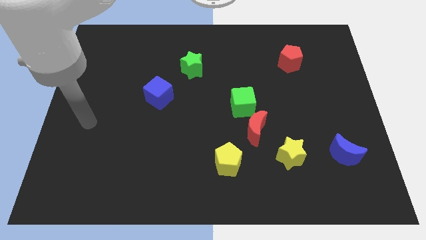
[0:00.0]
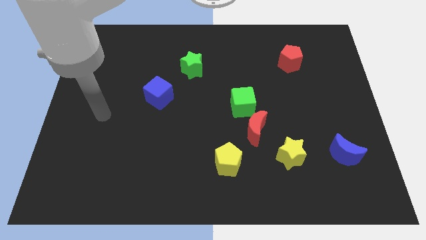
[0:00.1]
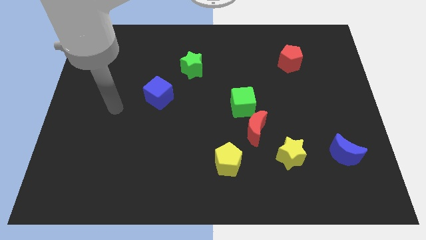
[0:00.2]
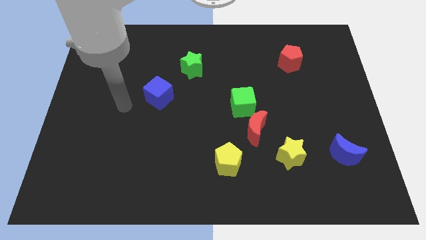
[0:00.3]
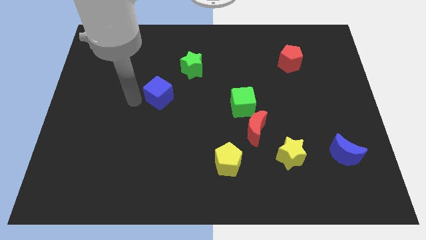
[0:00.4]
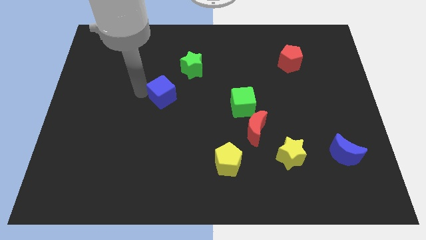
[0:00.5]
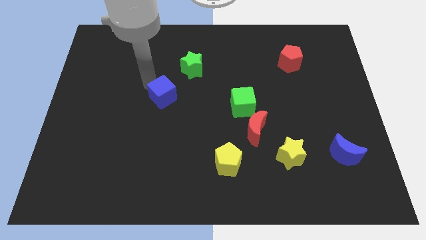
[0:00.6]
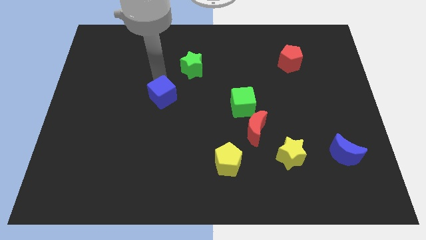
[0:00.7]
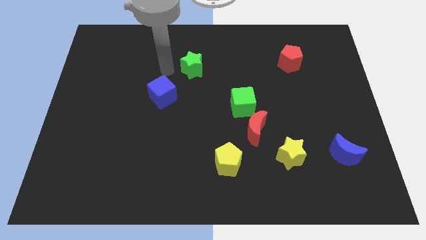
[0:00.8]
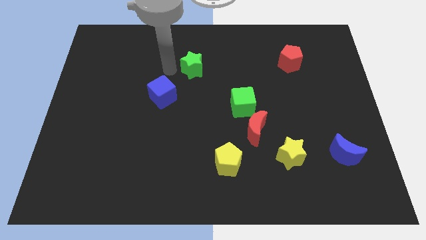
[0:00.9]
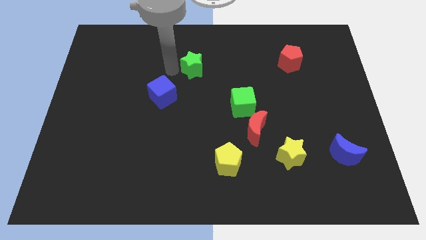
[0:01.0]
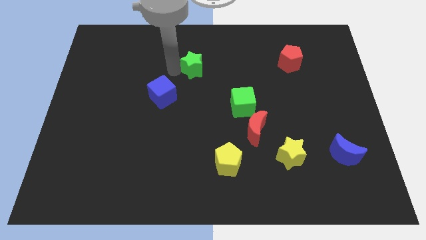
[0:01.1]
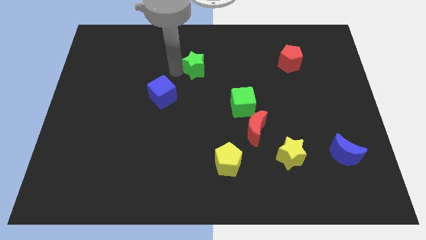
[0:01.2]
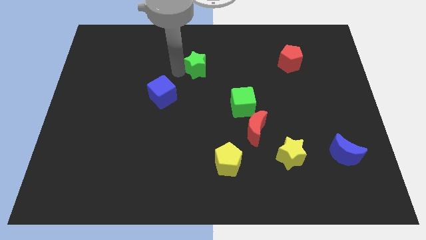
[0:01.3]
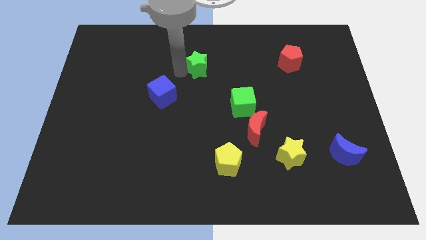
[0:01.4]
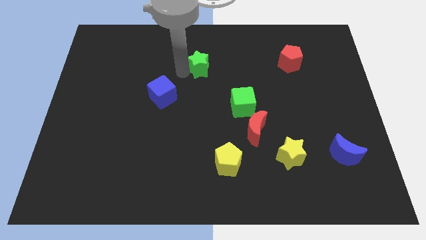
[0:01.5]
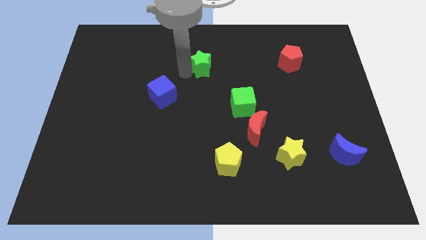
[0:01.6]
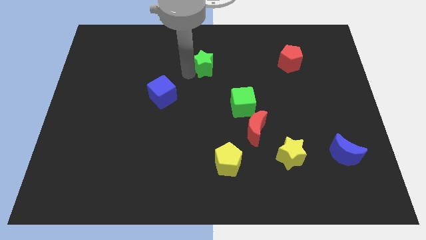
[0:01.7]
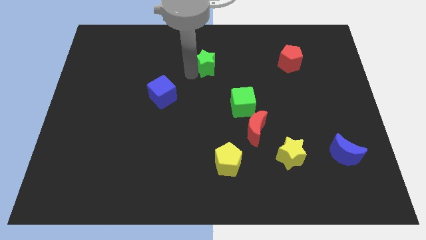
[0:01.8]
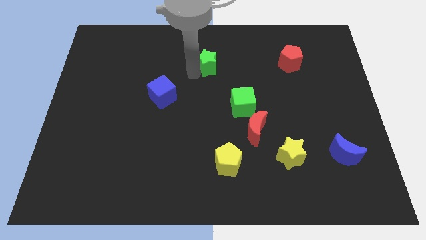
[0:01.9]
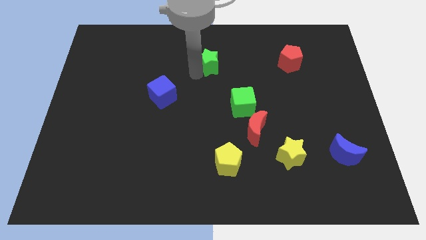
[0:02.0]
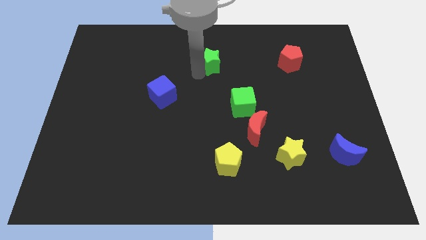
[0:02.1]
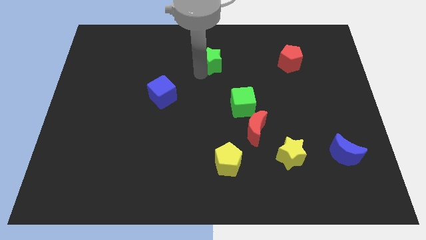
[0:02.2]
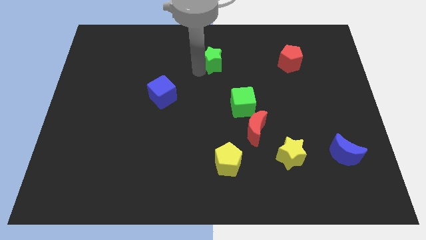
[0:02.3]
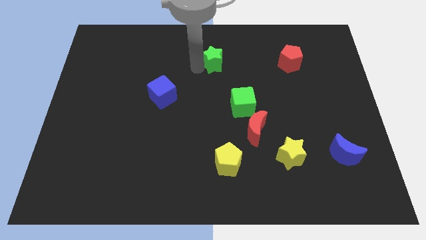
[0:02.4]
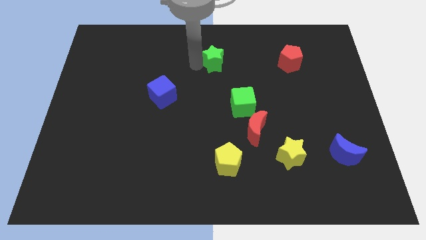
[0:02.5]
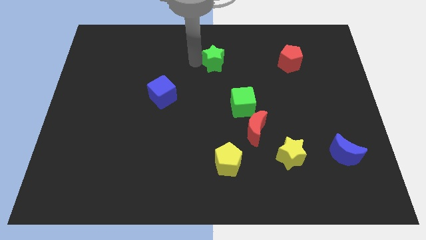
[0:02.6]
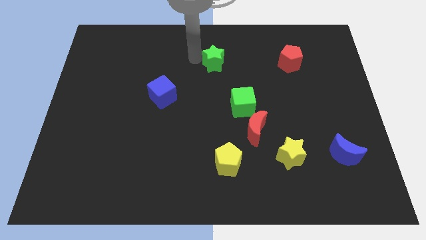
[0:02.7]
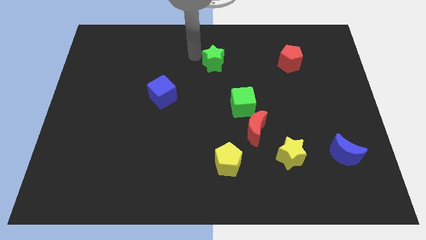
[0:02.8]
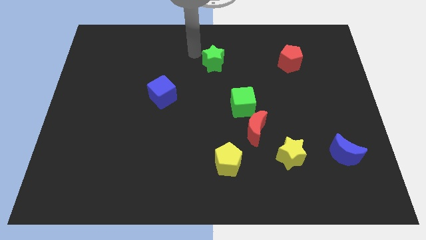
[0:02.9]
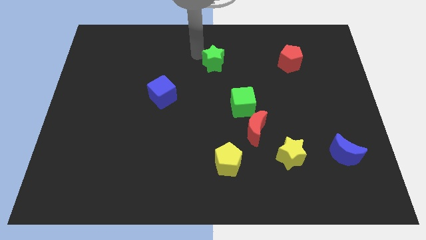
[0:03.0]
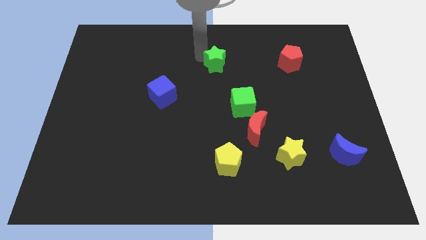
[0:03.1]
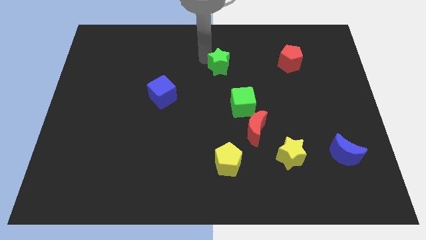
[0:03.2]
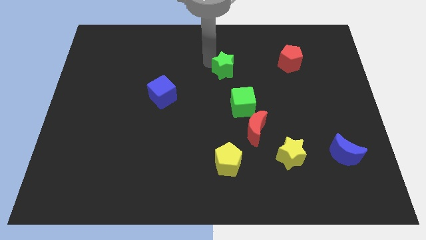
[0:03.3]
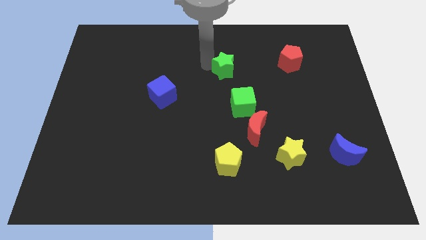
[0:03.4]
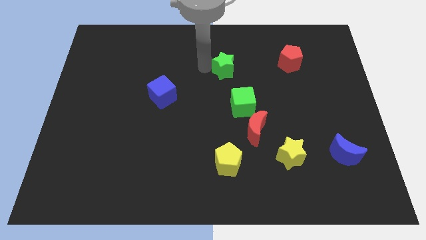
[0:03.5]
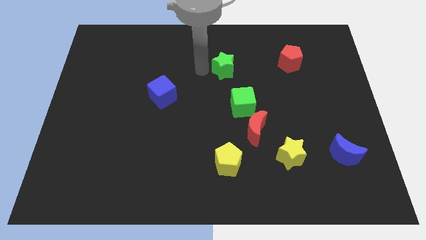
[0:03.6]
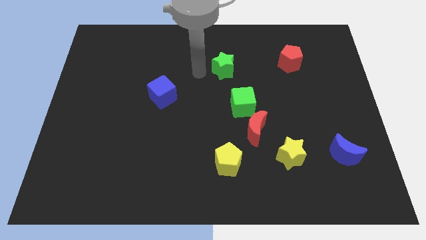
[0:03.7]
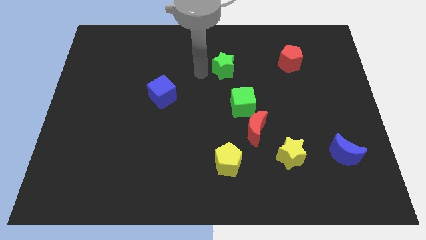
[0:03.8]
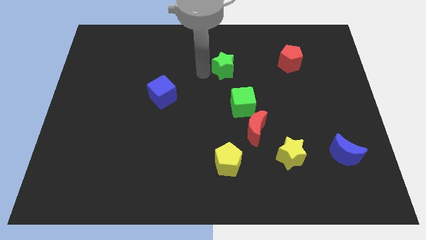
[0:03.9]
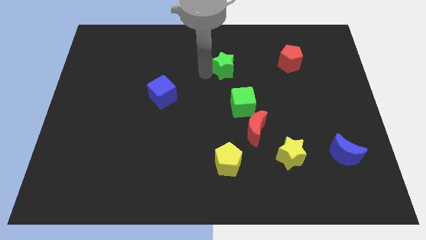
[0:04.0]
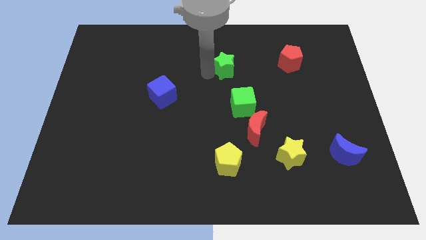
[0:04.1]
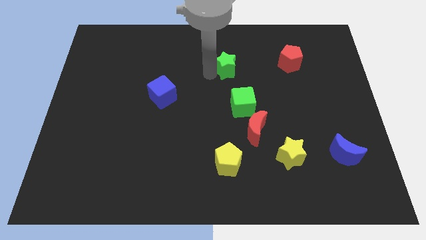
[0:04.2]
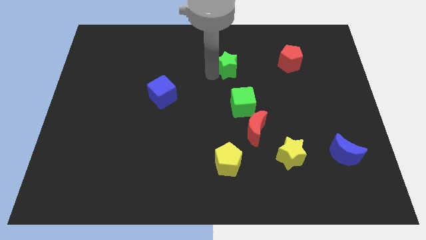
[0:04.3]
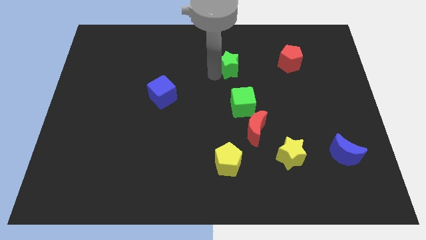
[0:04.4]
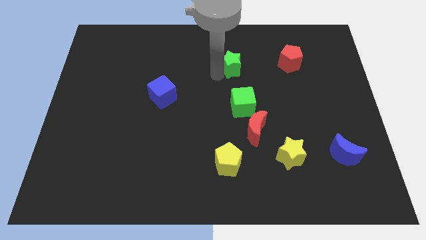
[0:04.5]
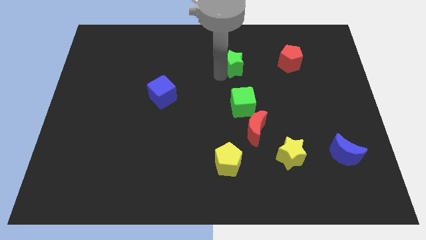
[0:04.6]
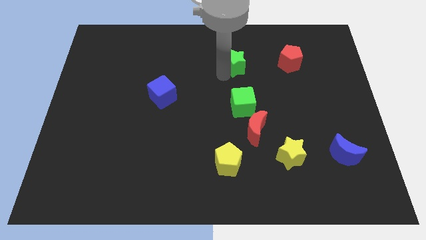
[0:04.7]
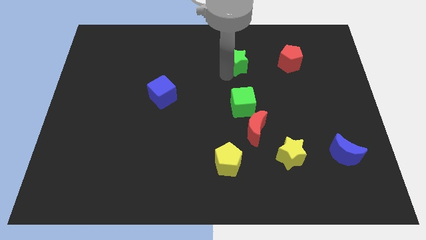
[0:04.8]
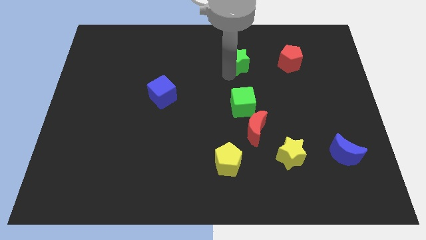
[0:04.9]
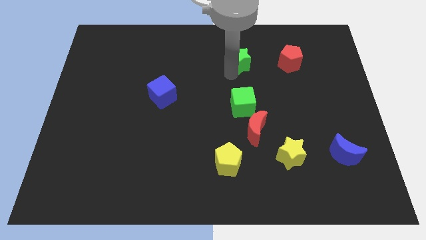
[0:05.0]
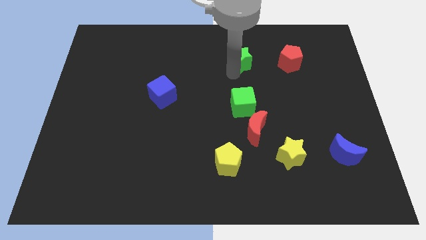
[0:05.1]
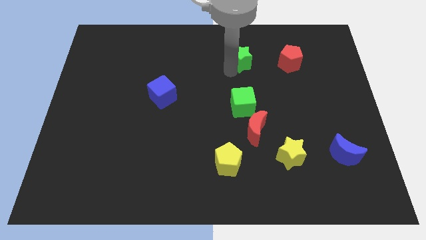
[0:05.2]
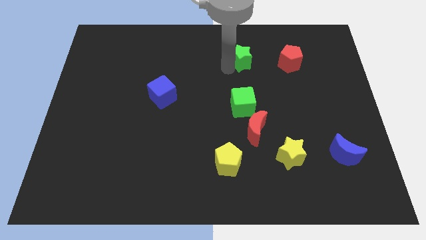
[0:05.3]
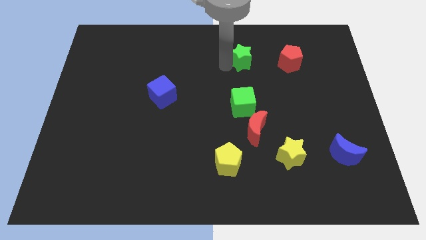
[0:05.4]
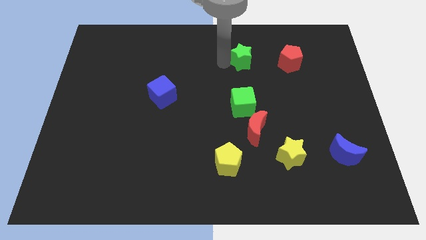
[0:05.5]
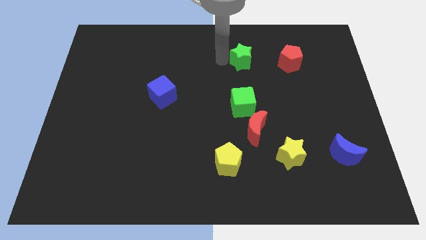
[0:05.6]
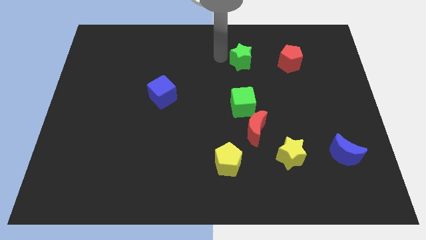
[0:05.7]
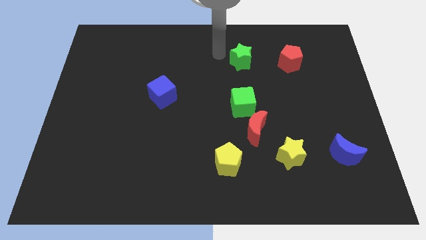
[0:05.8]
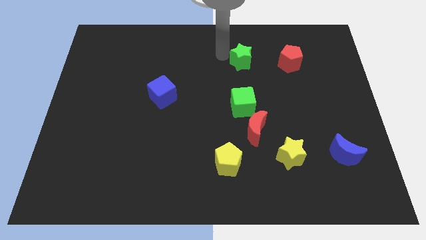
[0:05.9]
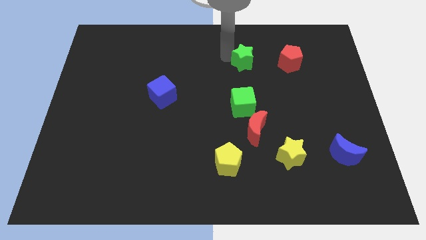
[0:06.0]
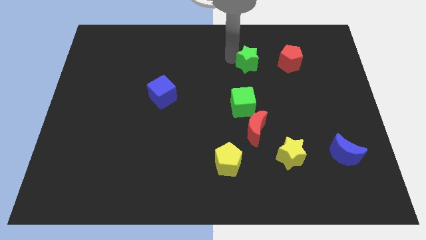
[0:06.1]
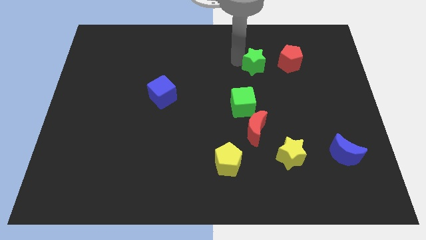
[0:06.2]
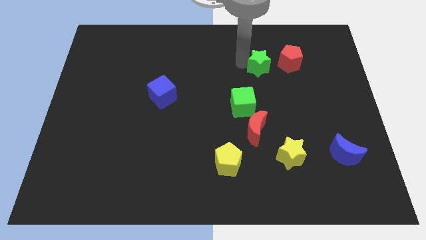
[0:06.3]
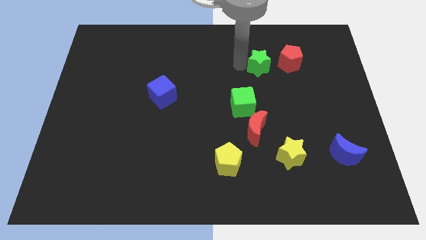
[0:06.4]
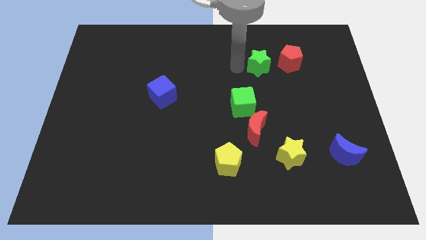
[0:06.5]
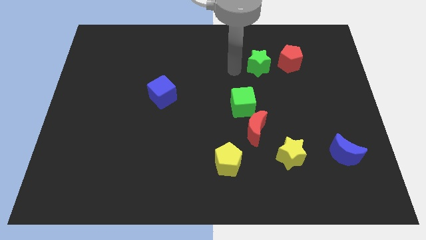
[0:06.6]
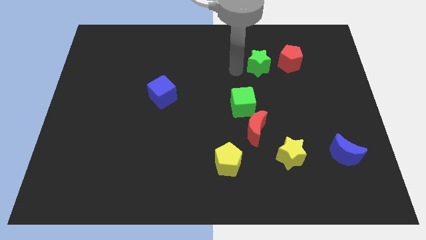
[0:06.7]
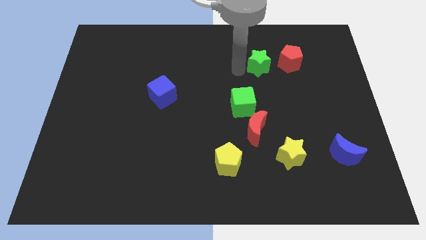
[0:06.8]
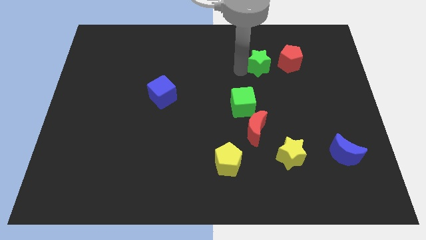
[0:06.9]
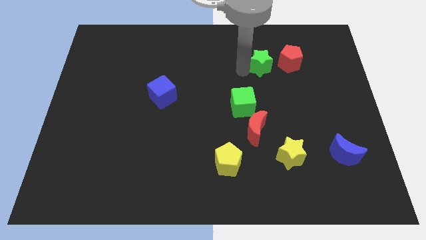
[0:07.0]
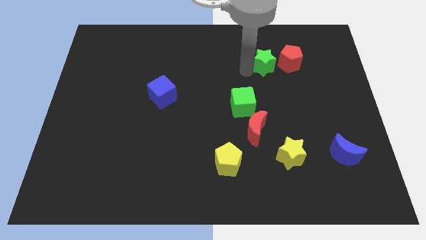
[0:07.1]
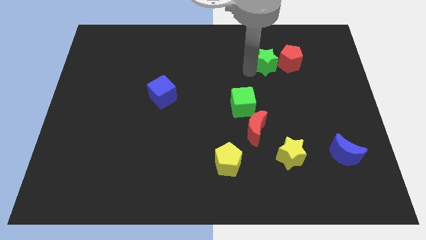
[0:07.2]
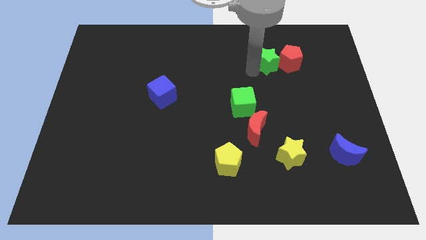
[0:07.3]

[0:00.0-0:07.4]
push the green star to the red pentagon

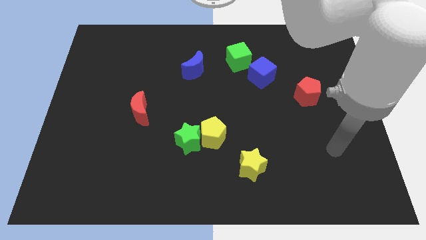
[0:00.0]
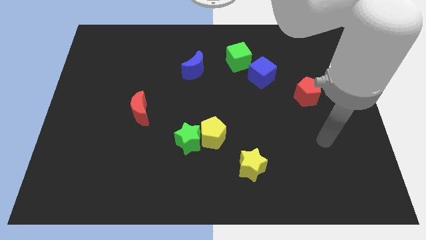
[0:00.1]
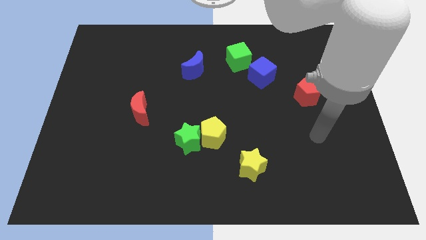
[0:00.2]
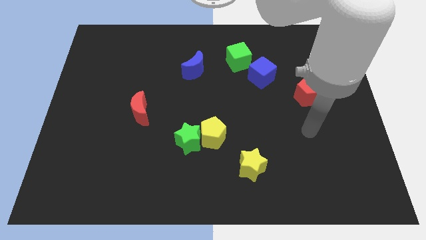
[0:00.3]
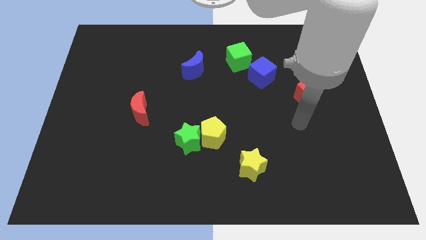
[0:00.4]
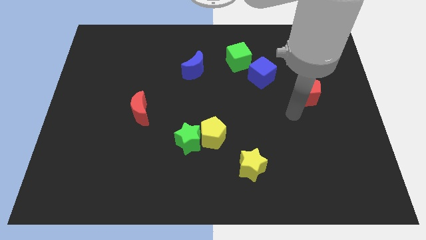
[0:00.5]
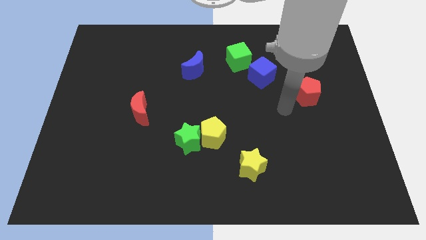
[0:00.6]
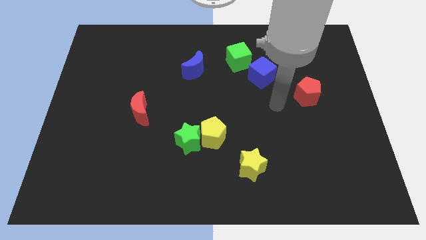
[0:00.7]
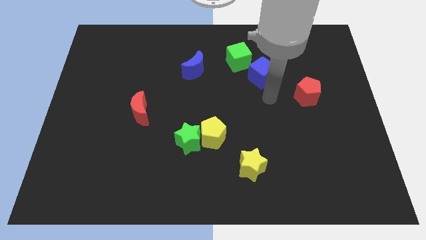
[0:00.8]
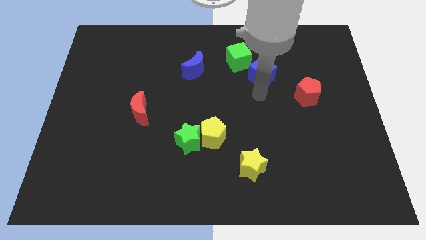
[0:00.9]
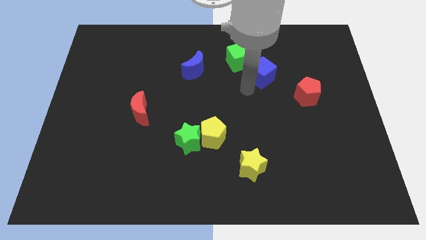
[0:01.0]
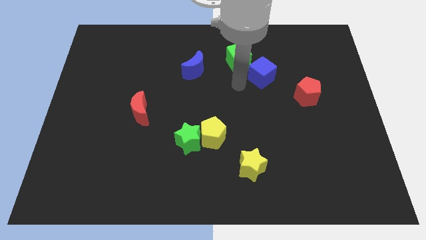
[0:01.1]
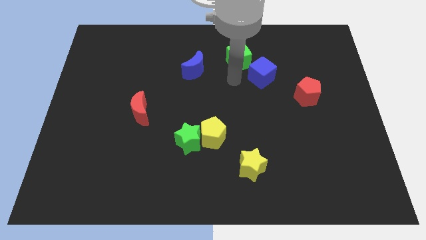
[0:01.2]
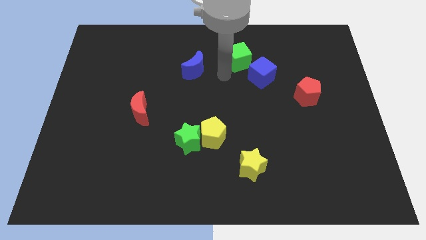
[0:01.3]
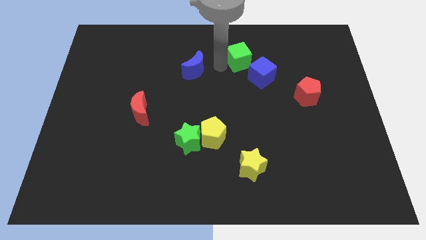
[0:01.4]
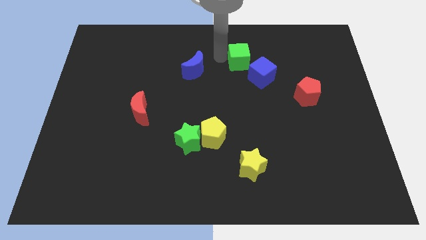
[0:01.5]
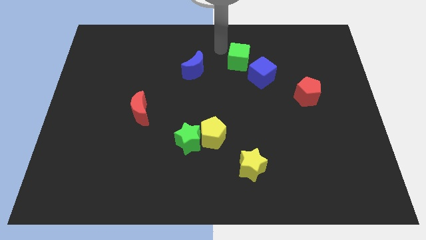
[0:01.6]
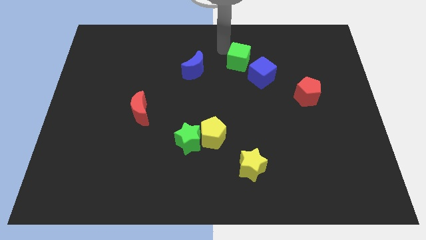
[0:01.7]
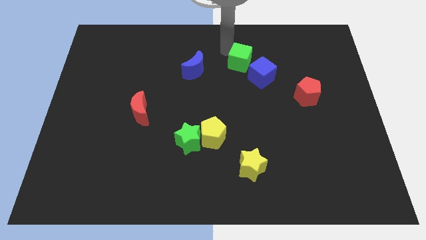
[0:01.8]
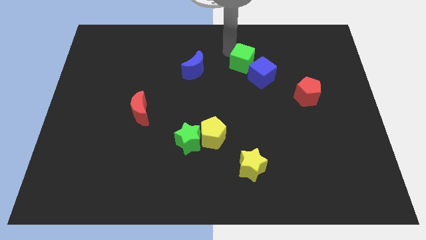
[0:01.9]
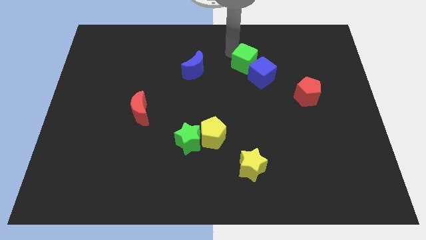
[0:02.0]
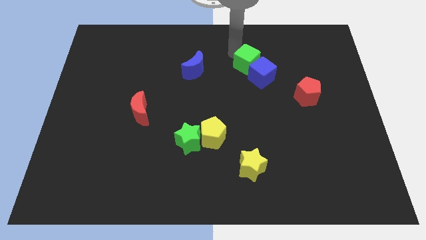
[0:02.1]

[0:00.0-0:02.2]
move the green cube next to the blue cube
